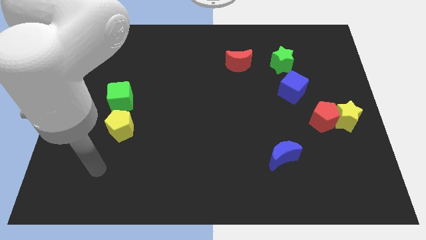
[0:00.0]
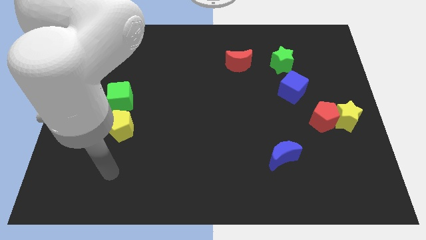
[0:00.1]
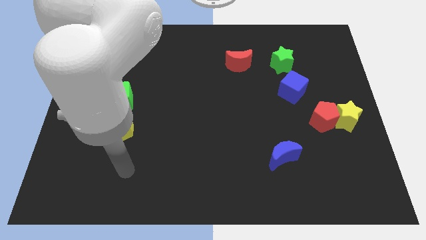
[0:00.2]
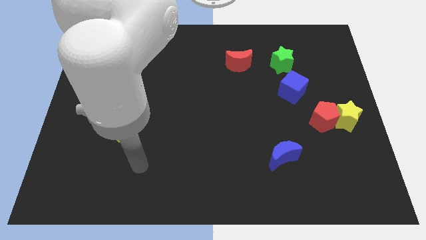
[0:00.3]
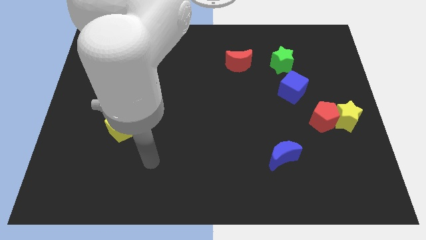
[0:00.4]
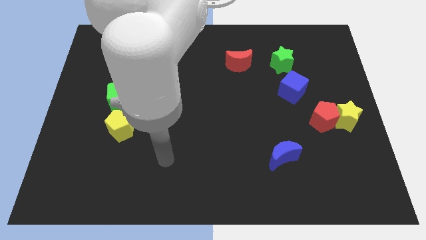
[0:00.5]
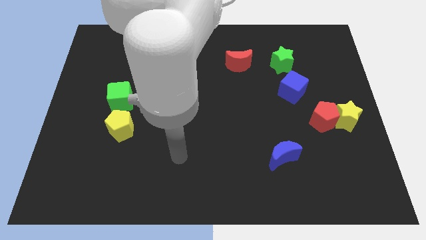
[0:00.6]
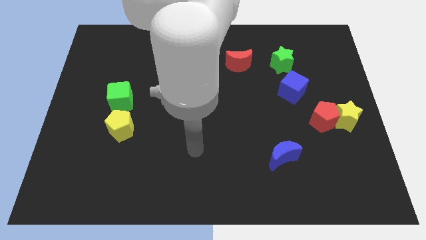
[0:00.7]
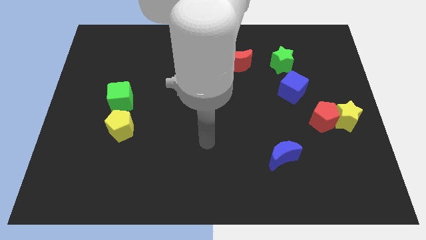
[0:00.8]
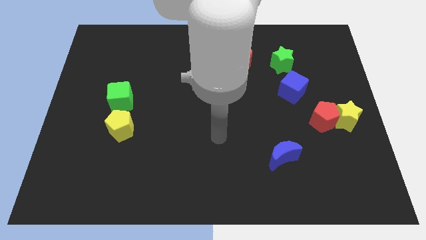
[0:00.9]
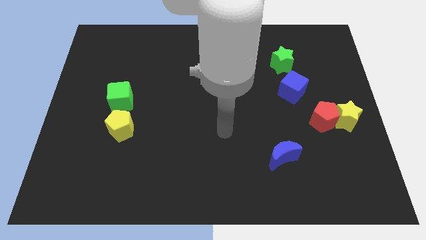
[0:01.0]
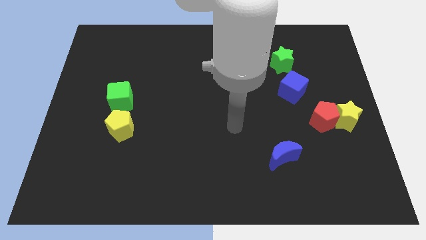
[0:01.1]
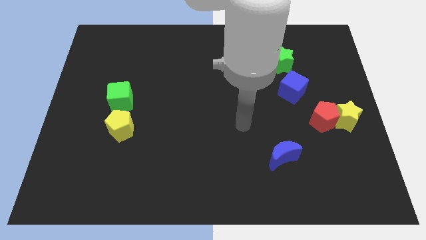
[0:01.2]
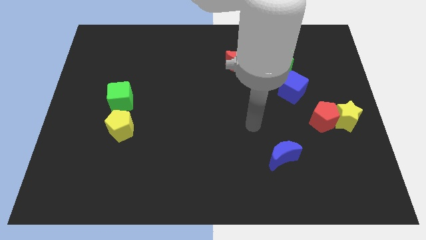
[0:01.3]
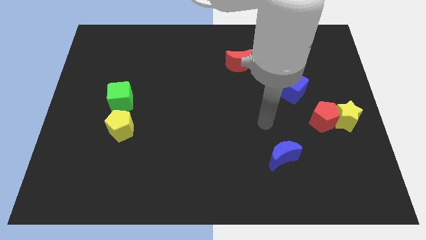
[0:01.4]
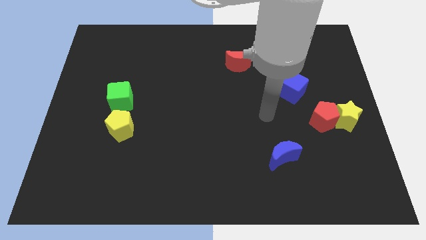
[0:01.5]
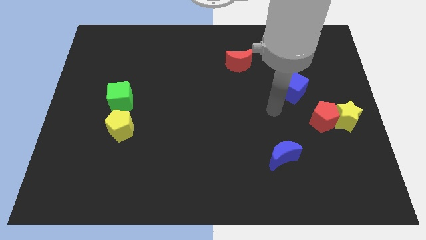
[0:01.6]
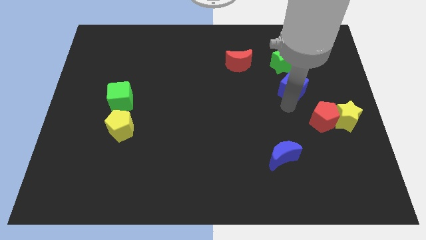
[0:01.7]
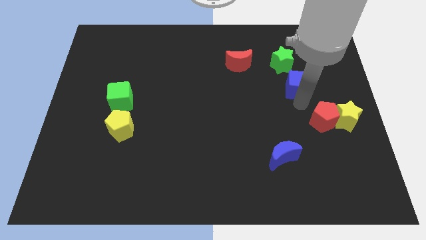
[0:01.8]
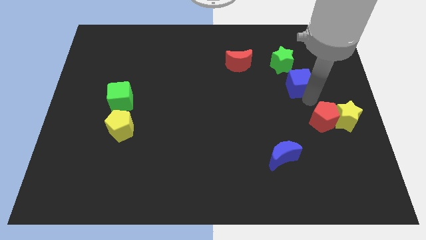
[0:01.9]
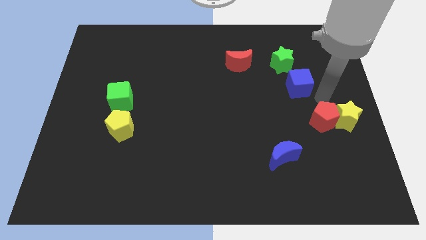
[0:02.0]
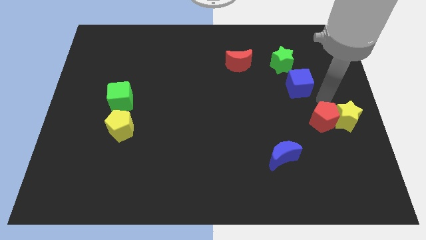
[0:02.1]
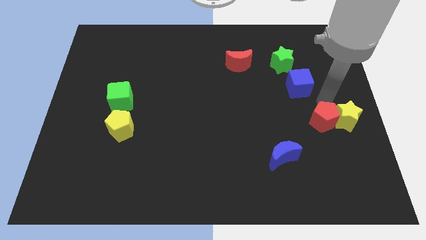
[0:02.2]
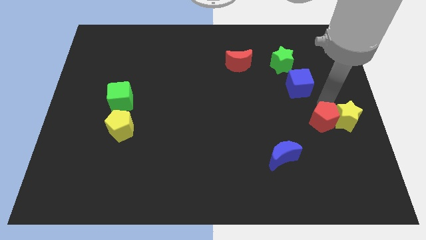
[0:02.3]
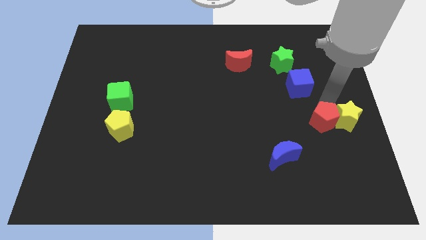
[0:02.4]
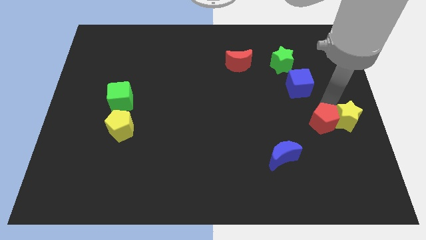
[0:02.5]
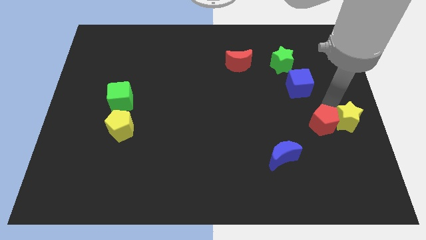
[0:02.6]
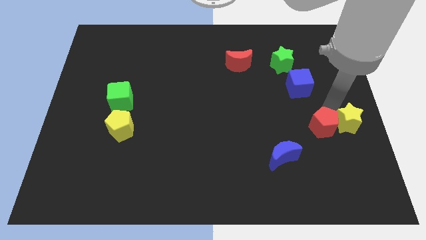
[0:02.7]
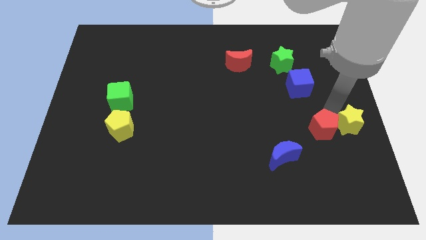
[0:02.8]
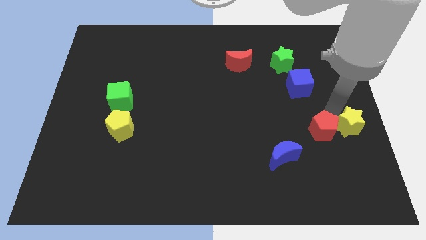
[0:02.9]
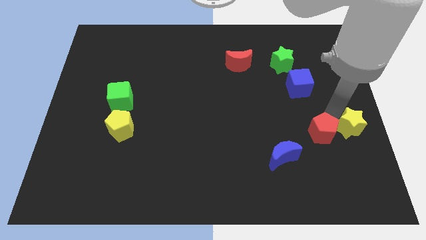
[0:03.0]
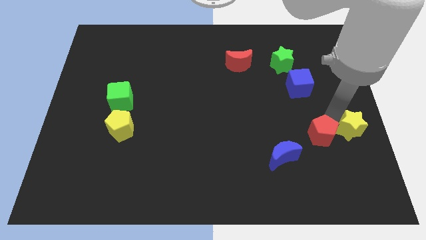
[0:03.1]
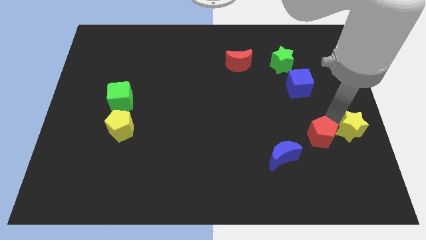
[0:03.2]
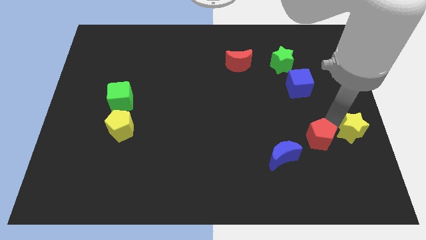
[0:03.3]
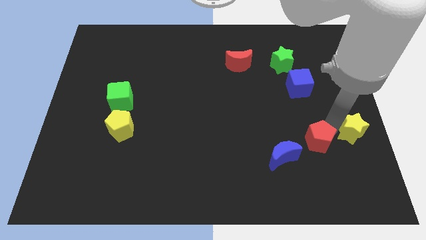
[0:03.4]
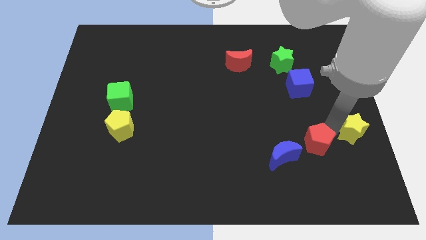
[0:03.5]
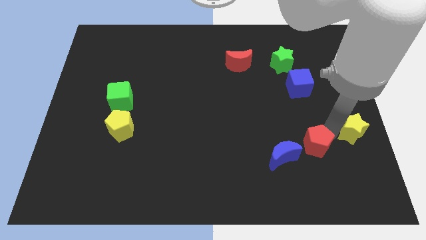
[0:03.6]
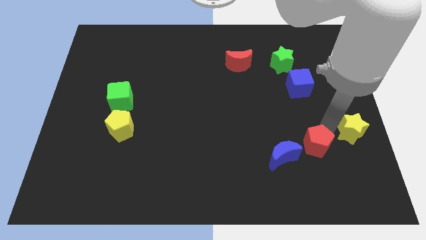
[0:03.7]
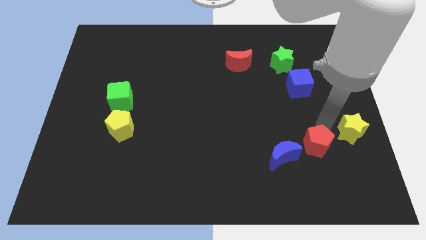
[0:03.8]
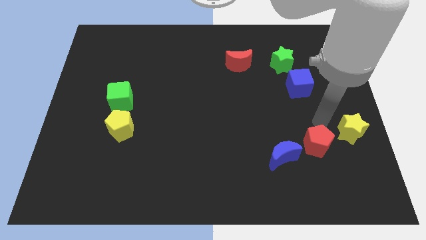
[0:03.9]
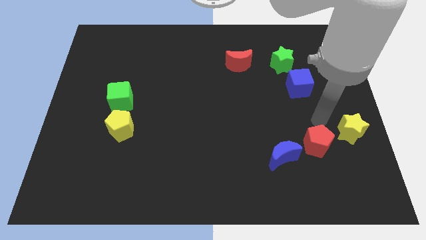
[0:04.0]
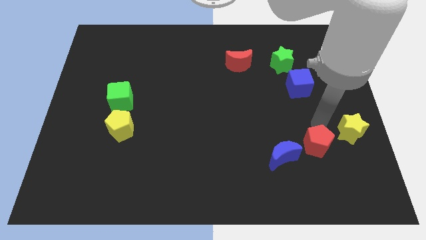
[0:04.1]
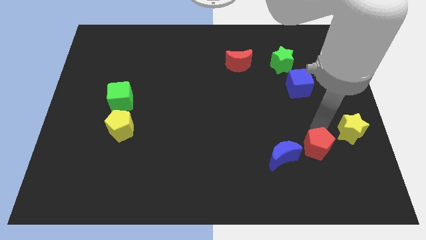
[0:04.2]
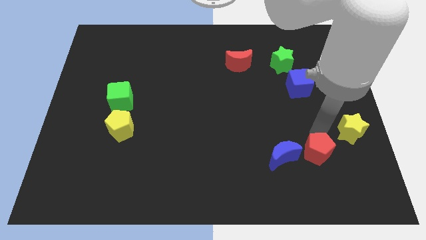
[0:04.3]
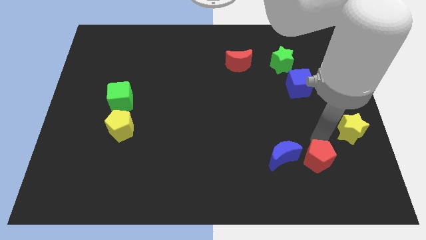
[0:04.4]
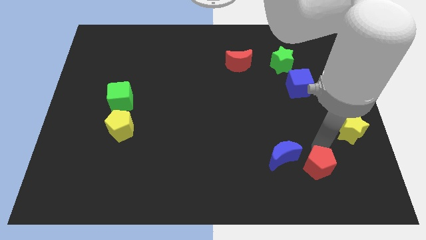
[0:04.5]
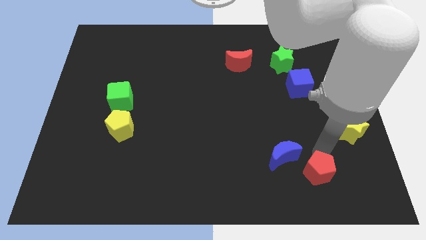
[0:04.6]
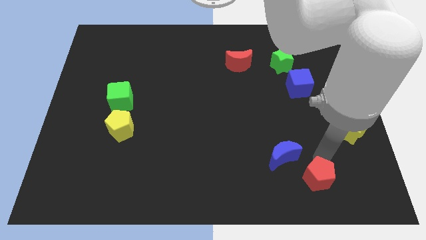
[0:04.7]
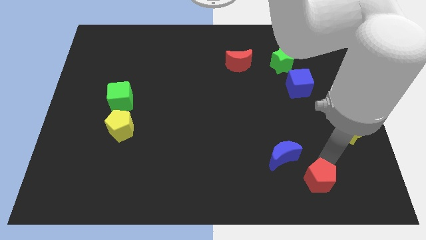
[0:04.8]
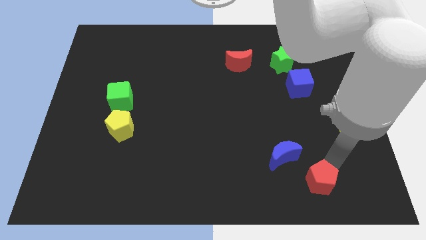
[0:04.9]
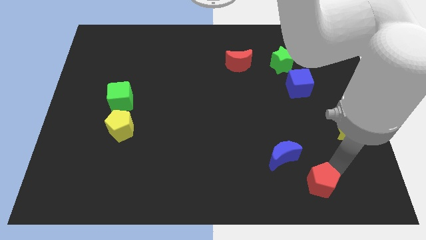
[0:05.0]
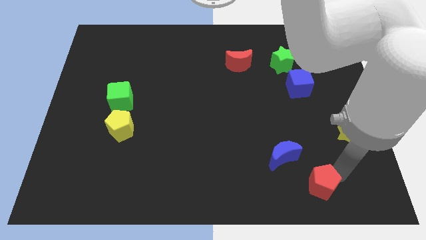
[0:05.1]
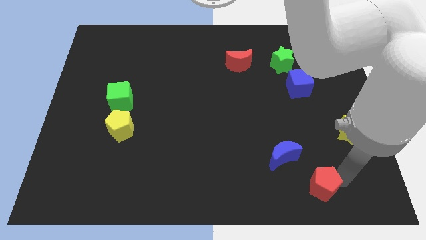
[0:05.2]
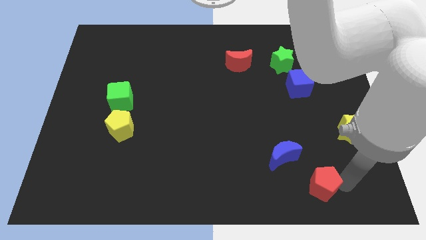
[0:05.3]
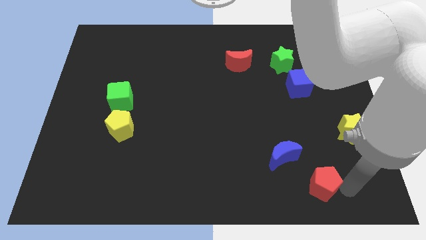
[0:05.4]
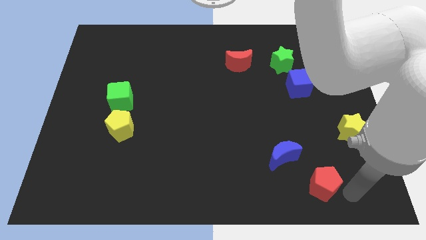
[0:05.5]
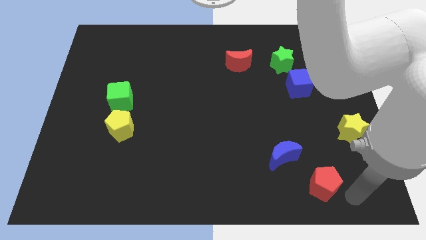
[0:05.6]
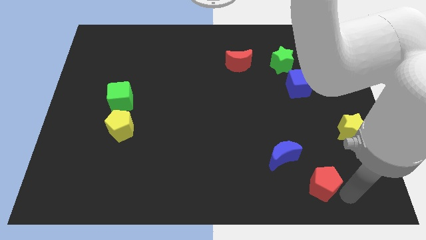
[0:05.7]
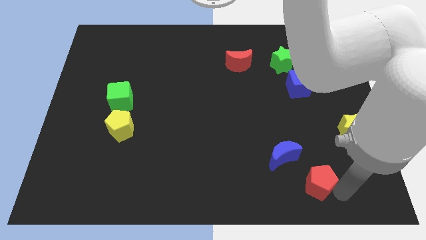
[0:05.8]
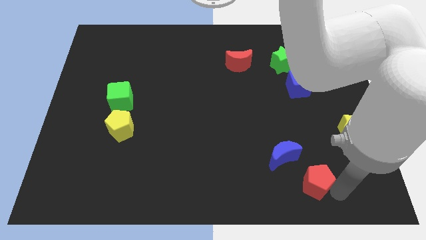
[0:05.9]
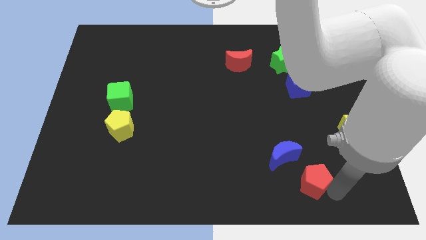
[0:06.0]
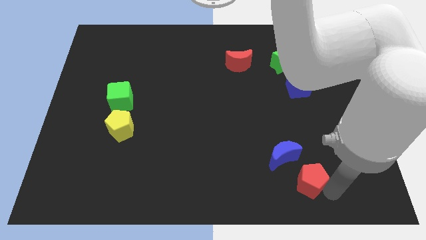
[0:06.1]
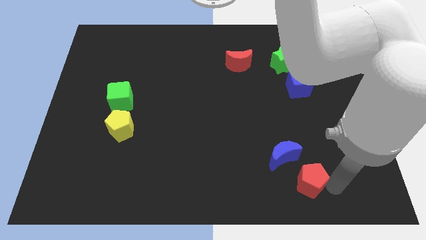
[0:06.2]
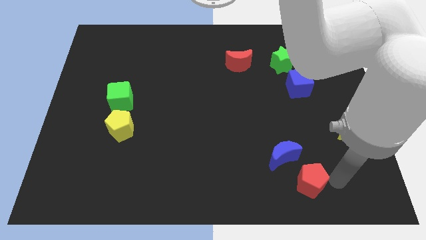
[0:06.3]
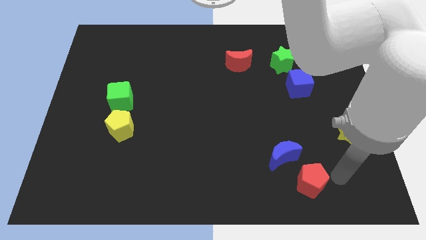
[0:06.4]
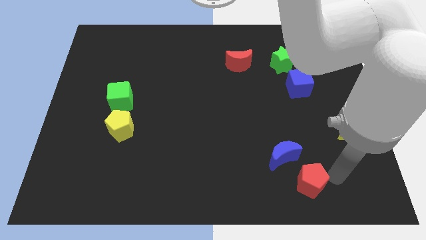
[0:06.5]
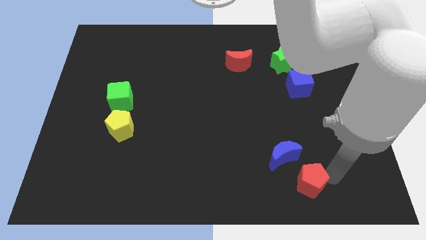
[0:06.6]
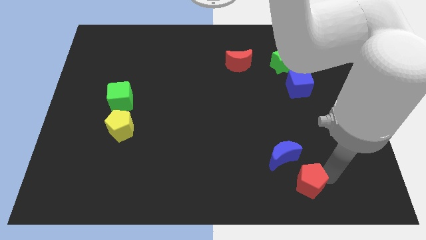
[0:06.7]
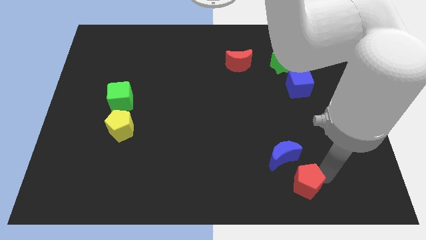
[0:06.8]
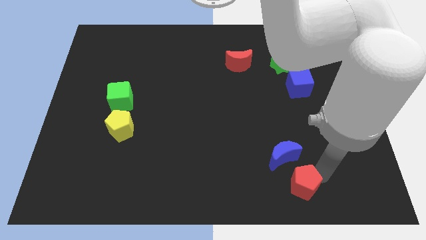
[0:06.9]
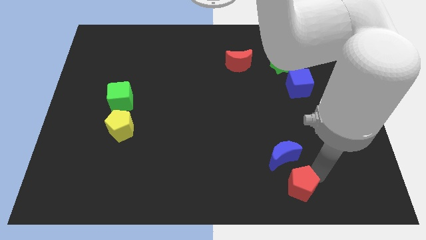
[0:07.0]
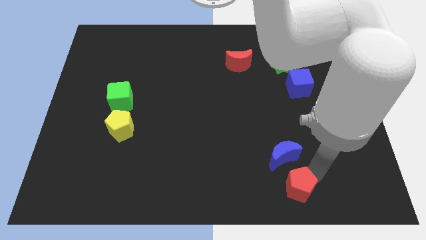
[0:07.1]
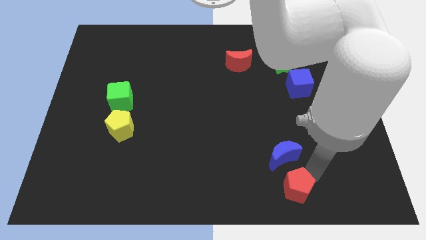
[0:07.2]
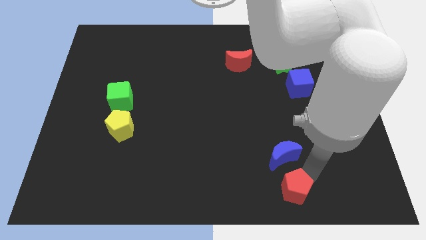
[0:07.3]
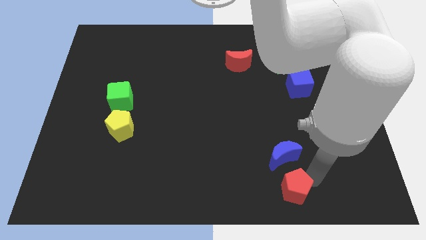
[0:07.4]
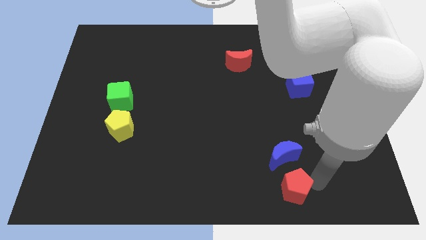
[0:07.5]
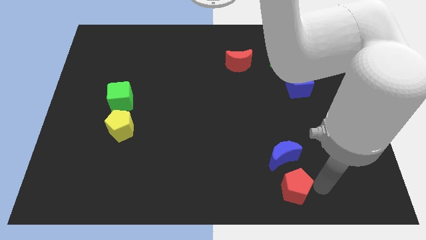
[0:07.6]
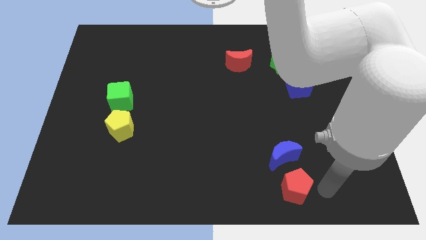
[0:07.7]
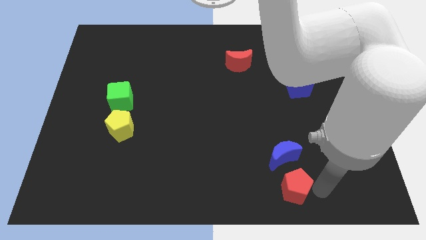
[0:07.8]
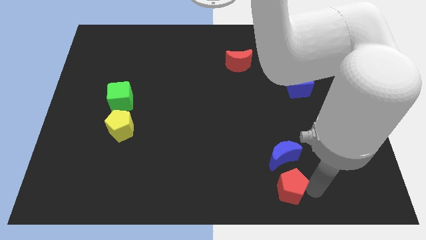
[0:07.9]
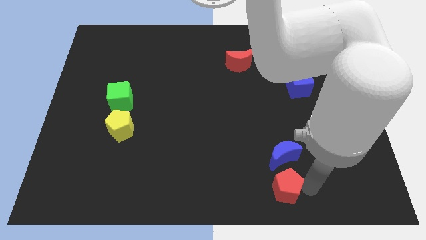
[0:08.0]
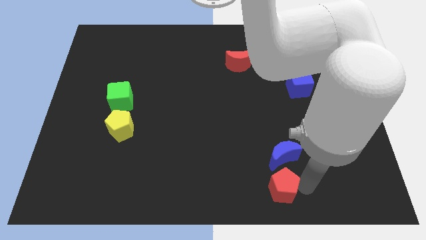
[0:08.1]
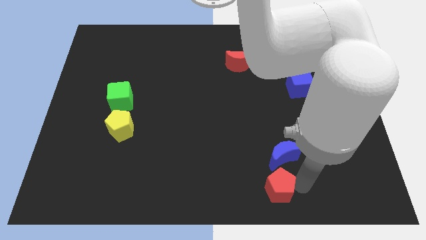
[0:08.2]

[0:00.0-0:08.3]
move the red pentagon to the bottom side

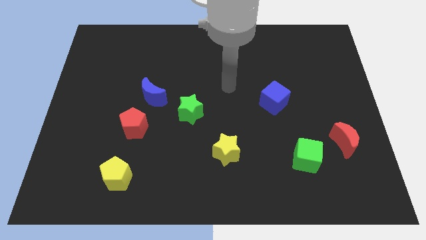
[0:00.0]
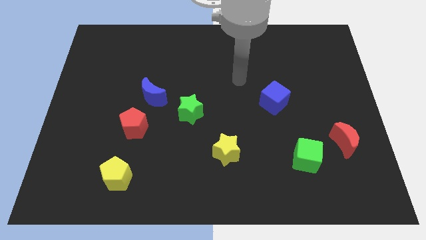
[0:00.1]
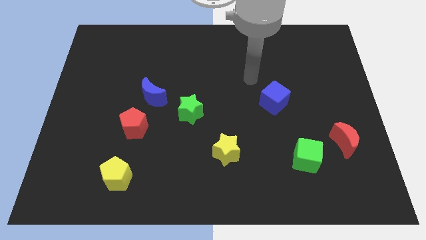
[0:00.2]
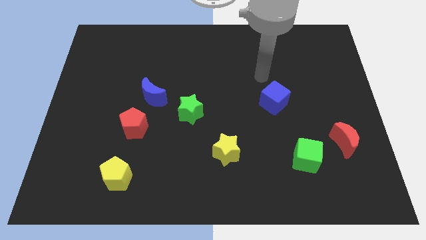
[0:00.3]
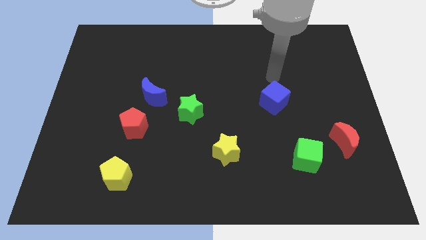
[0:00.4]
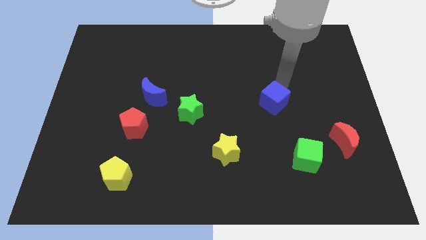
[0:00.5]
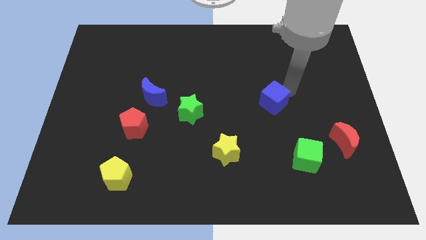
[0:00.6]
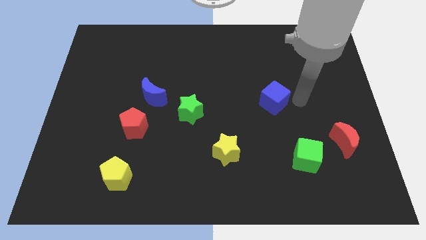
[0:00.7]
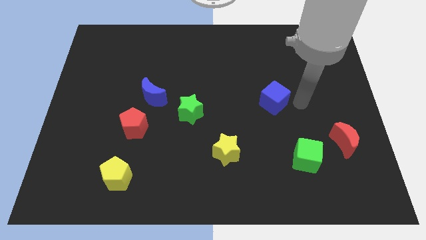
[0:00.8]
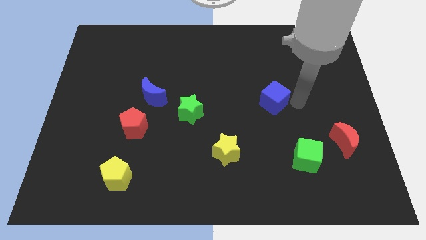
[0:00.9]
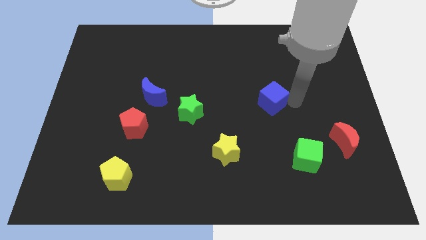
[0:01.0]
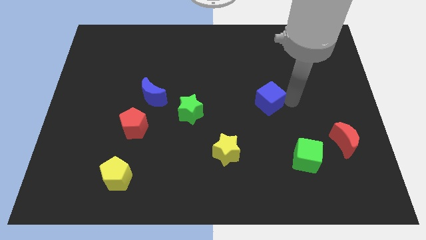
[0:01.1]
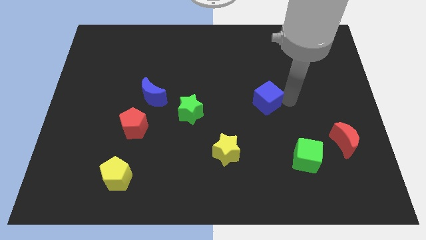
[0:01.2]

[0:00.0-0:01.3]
put the blue cube to the middle
